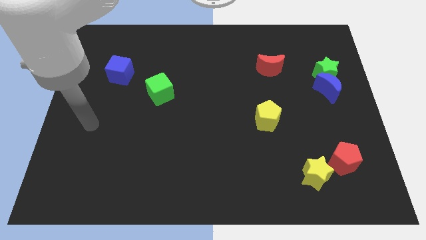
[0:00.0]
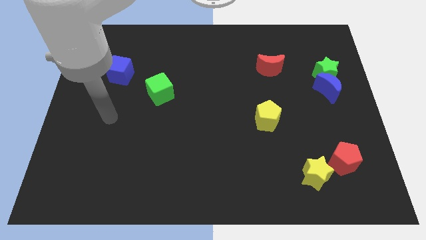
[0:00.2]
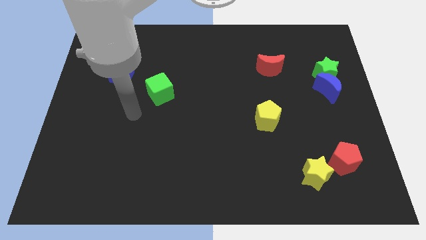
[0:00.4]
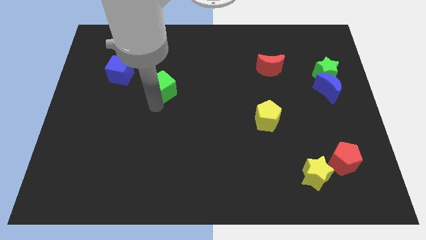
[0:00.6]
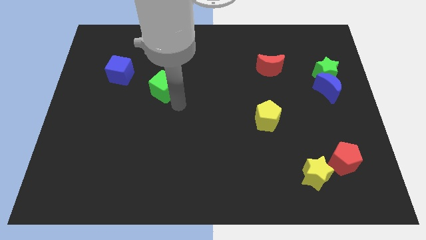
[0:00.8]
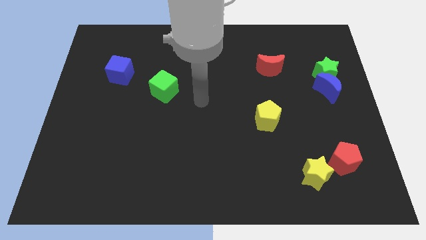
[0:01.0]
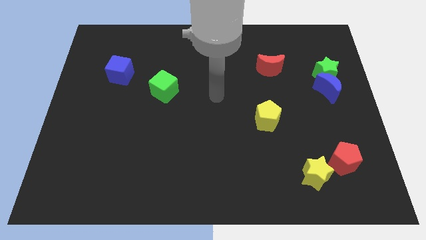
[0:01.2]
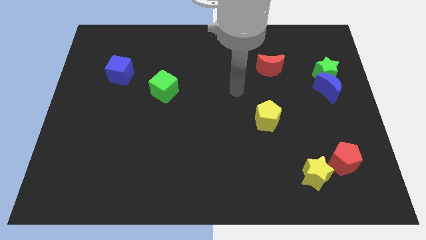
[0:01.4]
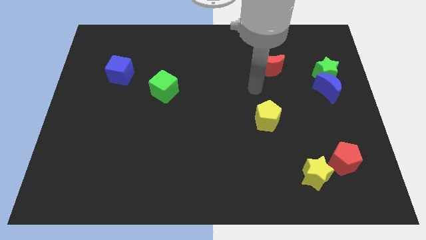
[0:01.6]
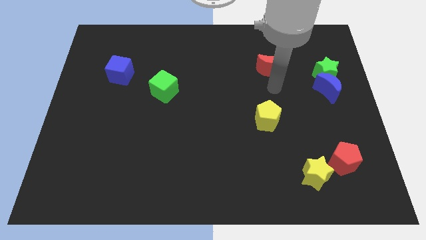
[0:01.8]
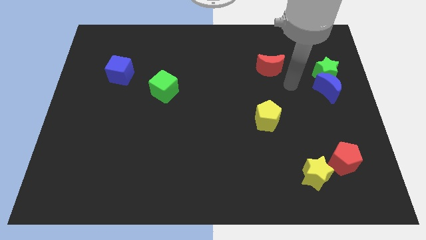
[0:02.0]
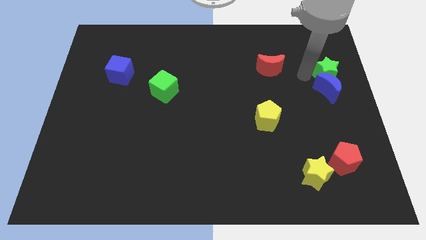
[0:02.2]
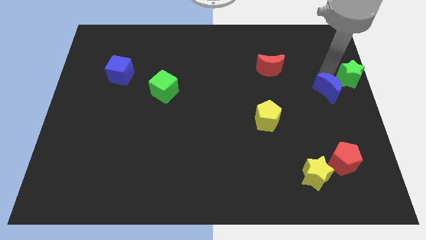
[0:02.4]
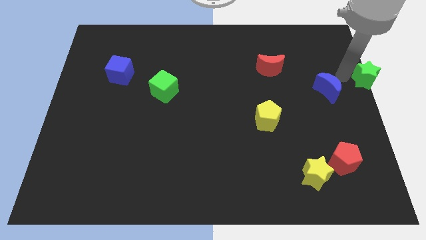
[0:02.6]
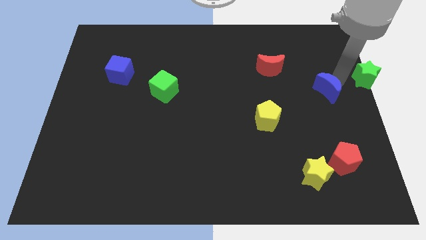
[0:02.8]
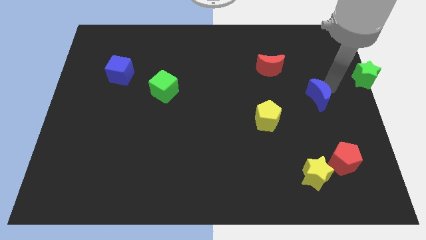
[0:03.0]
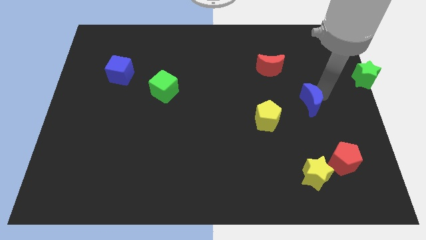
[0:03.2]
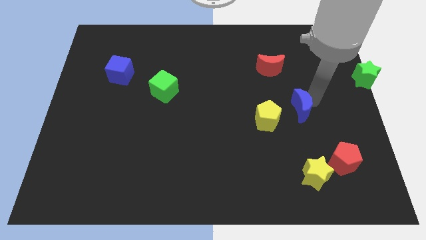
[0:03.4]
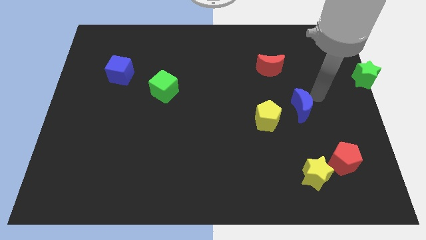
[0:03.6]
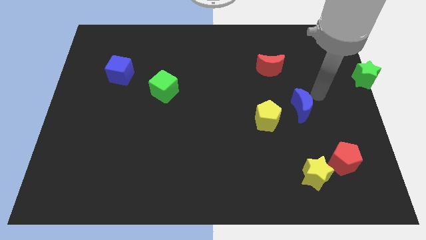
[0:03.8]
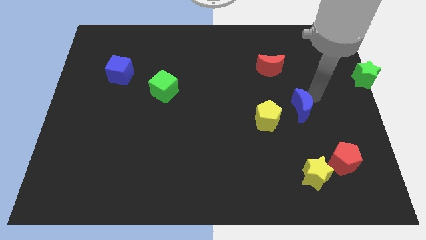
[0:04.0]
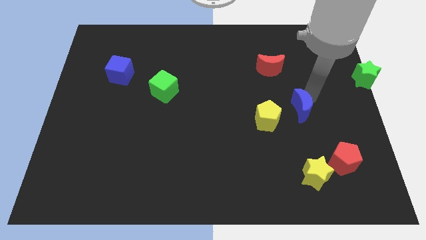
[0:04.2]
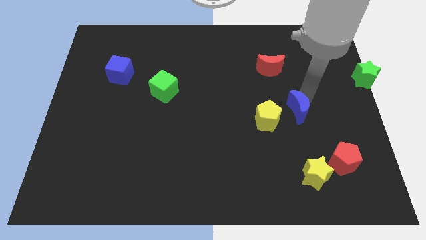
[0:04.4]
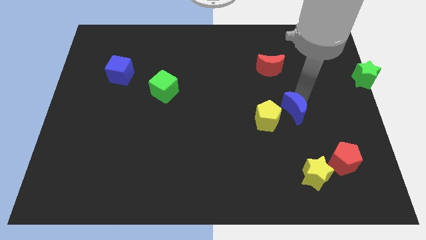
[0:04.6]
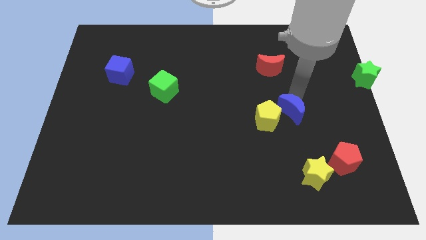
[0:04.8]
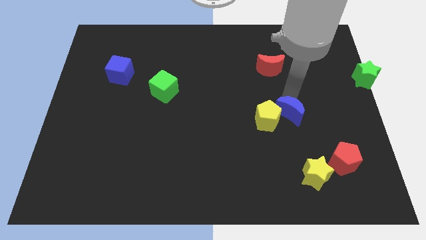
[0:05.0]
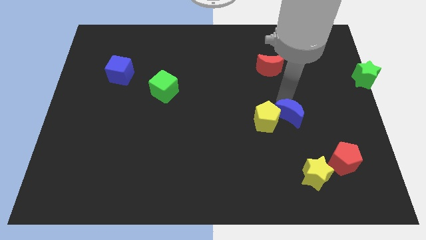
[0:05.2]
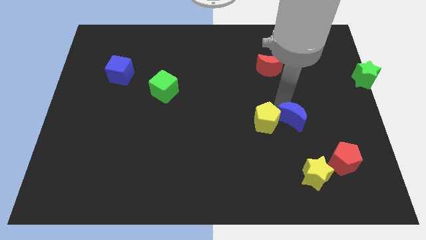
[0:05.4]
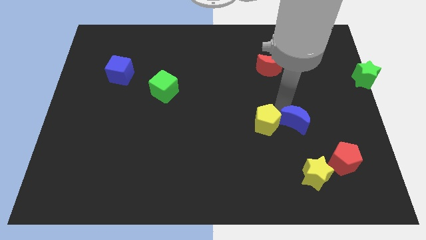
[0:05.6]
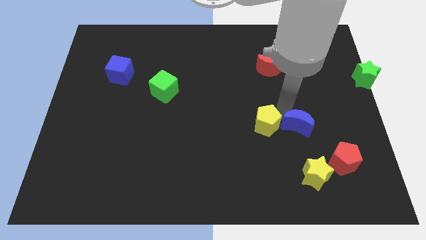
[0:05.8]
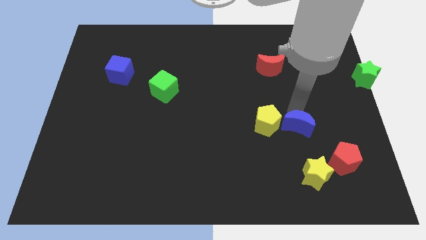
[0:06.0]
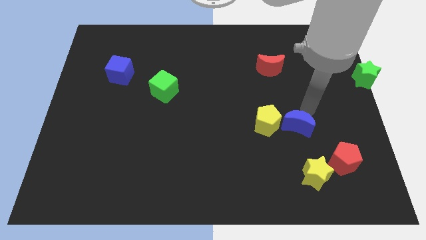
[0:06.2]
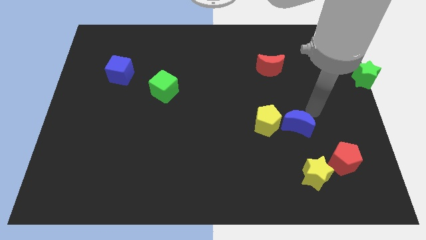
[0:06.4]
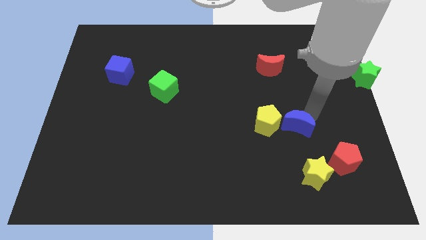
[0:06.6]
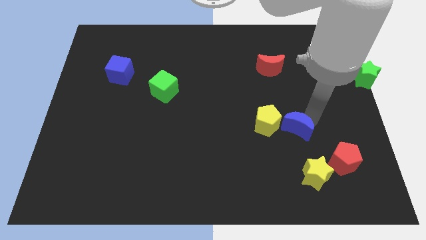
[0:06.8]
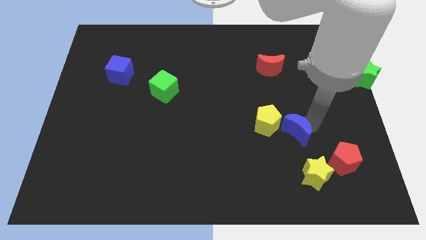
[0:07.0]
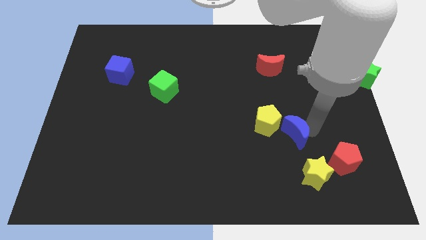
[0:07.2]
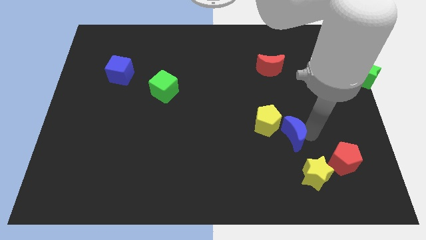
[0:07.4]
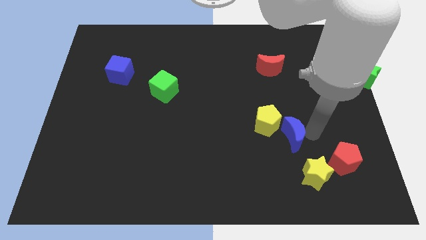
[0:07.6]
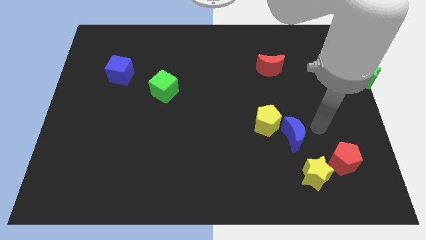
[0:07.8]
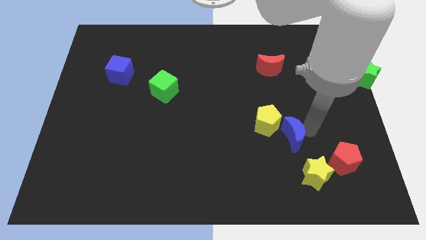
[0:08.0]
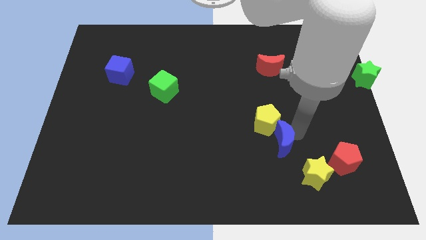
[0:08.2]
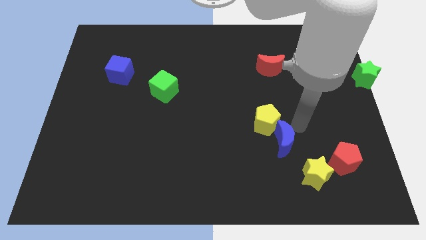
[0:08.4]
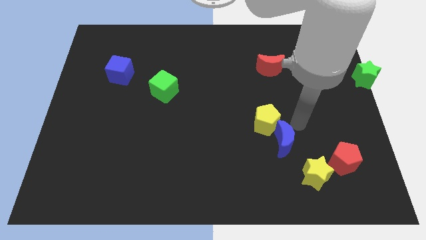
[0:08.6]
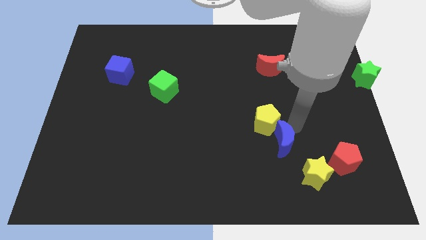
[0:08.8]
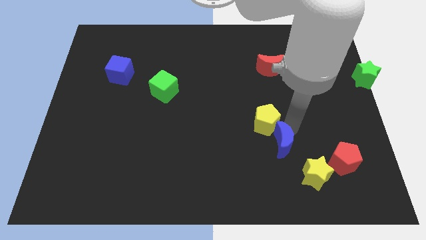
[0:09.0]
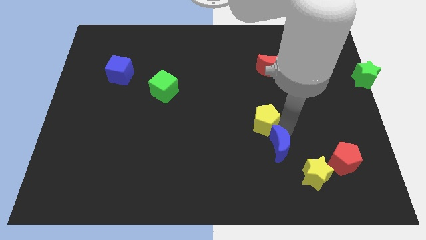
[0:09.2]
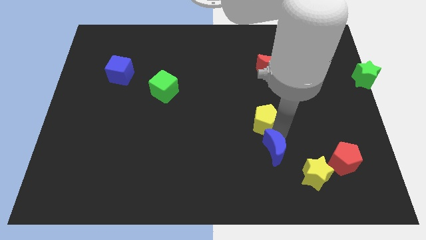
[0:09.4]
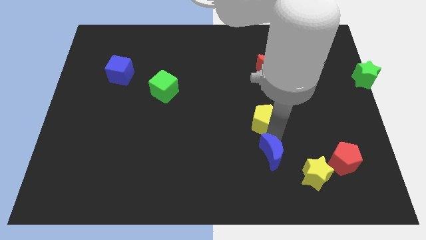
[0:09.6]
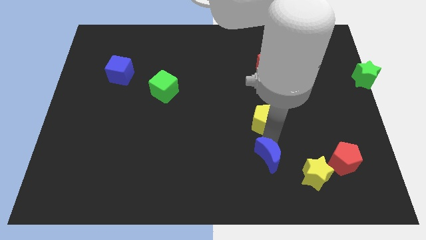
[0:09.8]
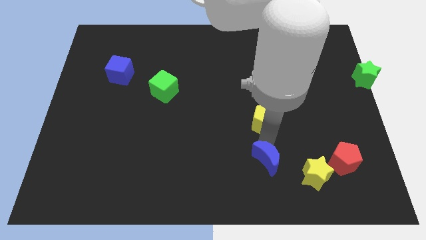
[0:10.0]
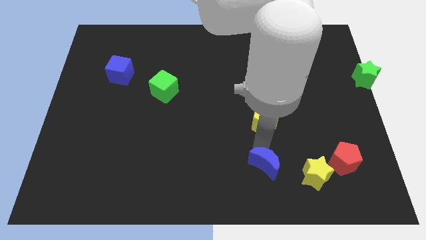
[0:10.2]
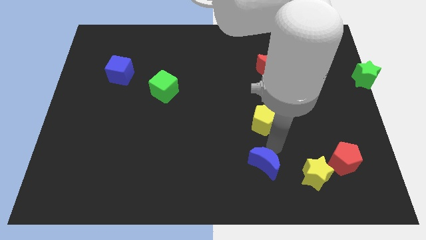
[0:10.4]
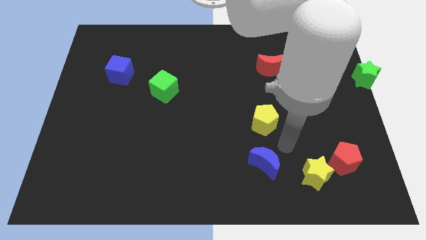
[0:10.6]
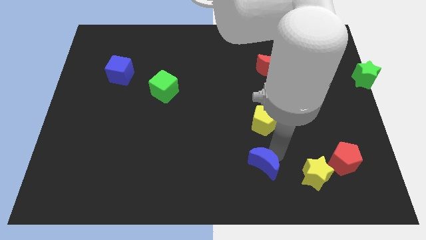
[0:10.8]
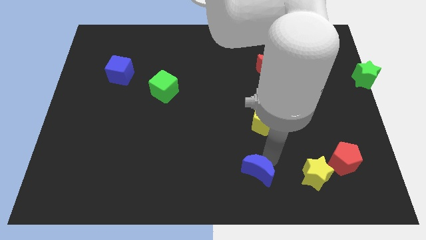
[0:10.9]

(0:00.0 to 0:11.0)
push the blue moon to the bottom

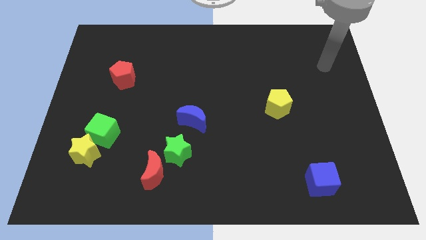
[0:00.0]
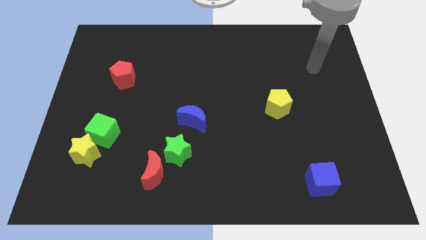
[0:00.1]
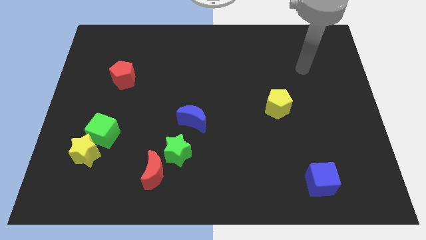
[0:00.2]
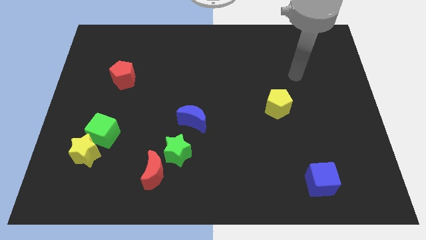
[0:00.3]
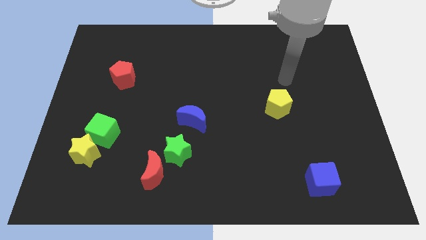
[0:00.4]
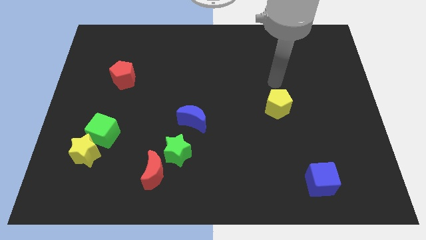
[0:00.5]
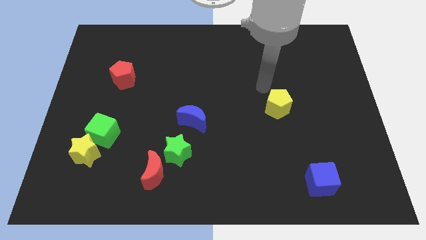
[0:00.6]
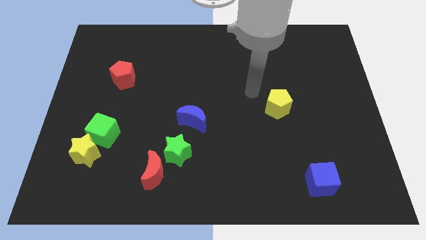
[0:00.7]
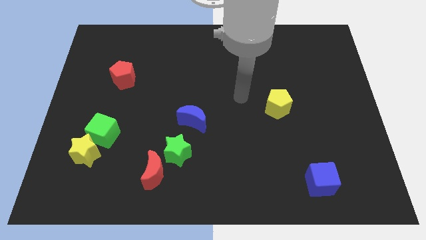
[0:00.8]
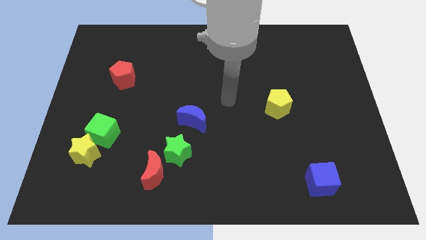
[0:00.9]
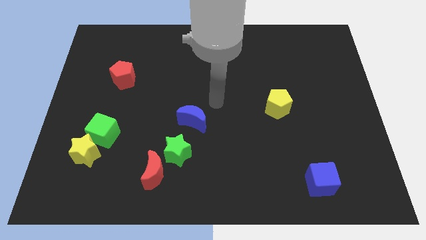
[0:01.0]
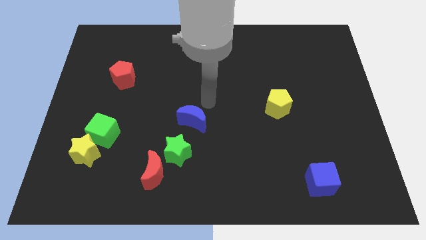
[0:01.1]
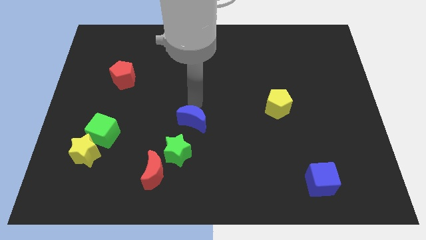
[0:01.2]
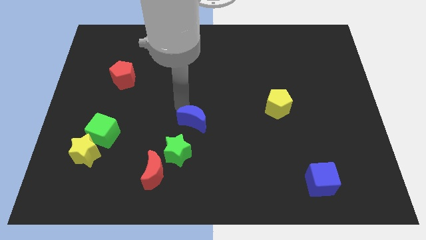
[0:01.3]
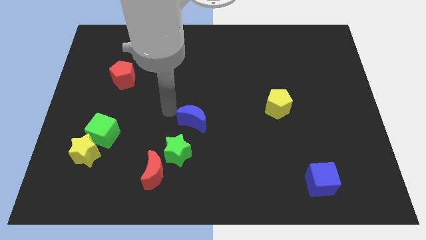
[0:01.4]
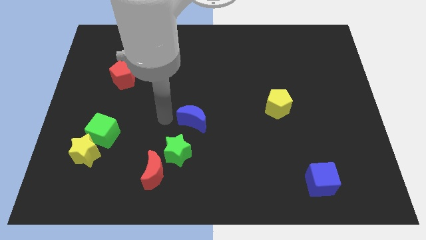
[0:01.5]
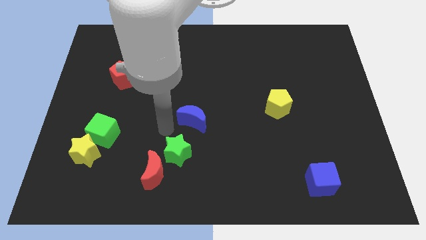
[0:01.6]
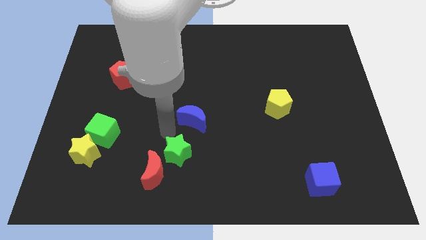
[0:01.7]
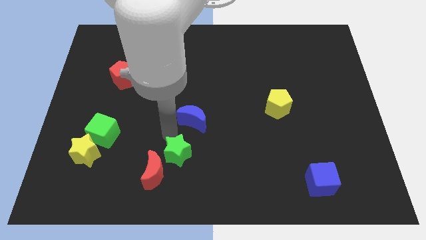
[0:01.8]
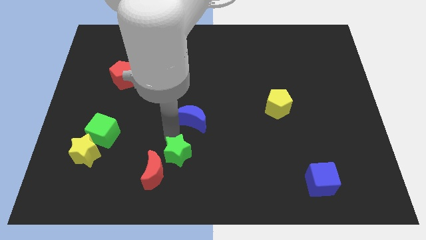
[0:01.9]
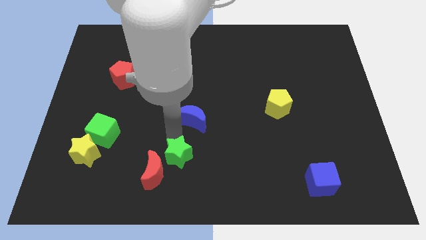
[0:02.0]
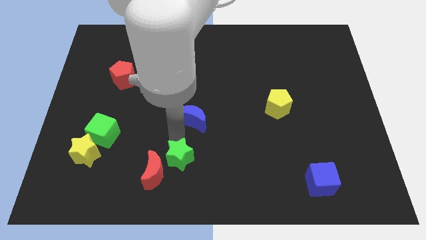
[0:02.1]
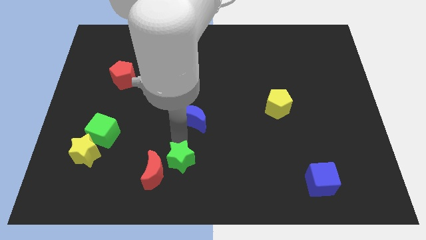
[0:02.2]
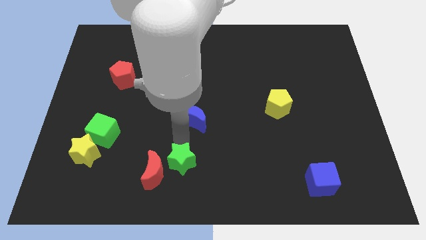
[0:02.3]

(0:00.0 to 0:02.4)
move the green star to the bottom side
